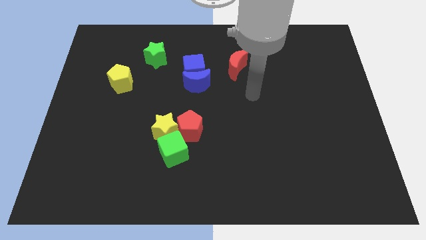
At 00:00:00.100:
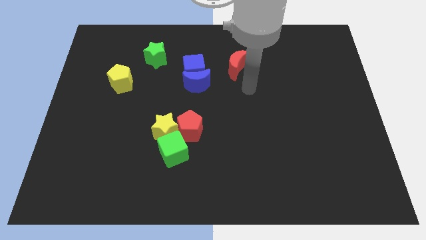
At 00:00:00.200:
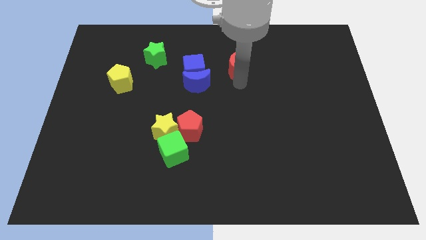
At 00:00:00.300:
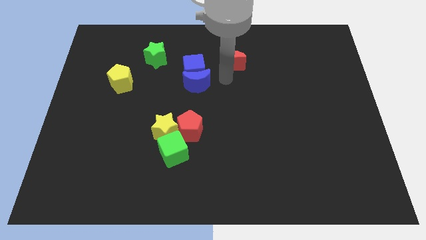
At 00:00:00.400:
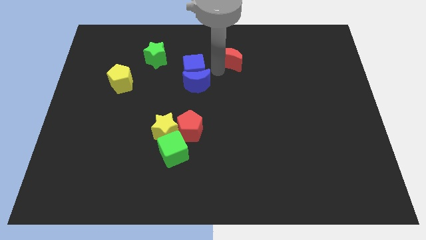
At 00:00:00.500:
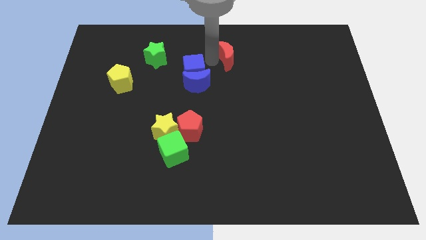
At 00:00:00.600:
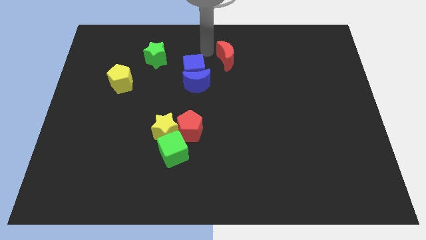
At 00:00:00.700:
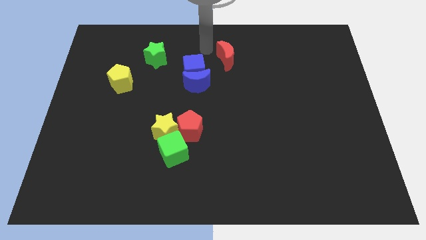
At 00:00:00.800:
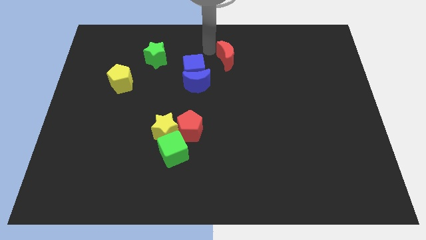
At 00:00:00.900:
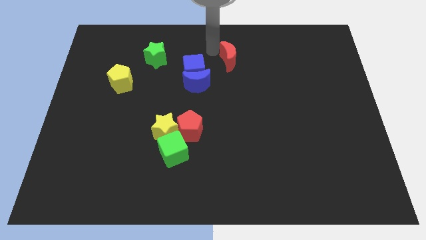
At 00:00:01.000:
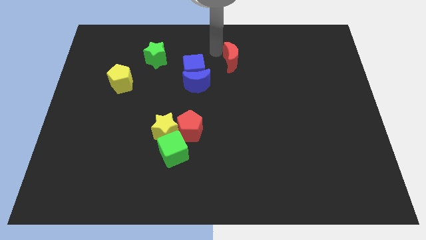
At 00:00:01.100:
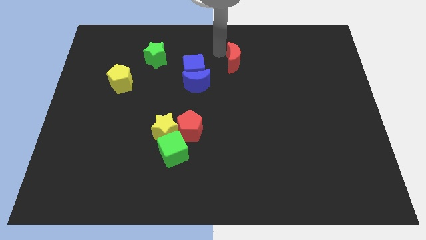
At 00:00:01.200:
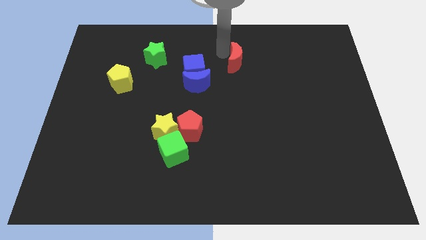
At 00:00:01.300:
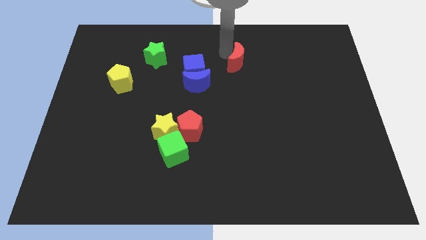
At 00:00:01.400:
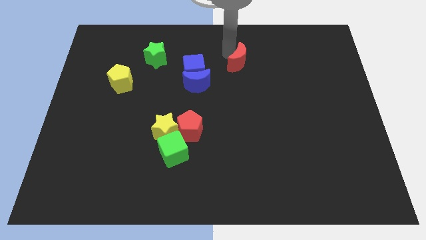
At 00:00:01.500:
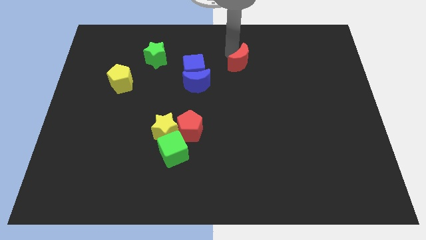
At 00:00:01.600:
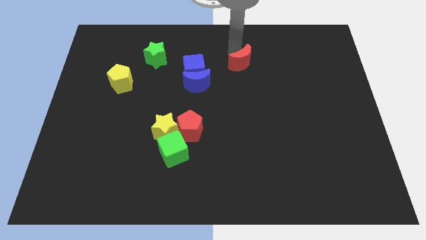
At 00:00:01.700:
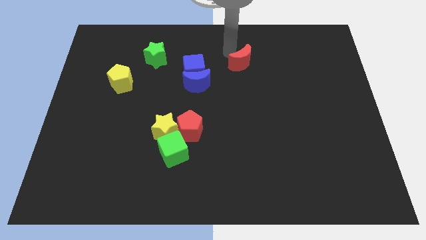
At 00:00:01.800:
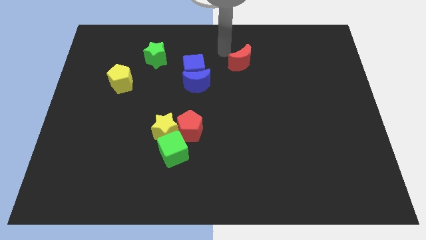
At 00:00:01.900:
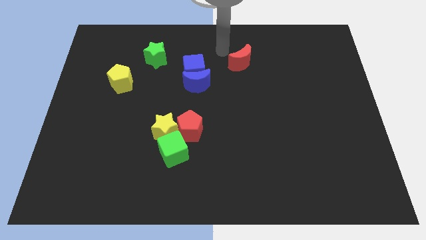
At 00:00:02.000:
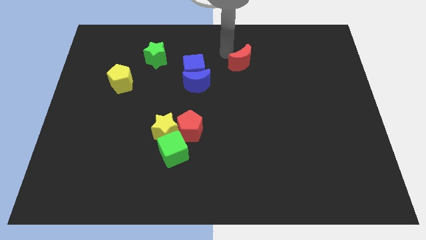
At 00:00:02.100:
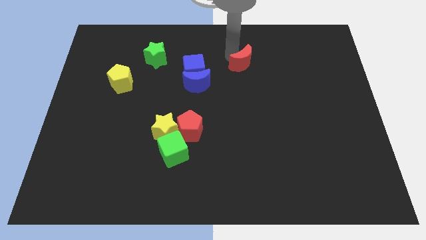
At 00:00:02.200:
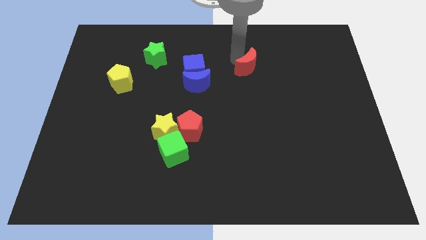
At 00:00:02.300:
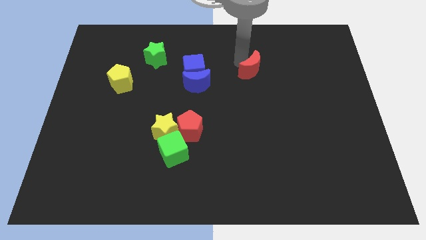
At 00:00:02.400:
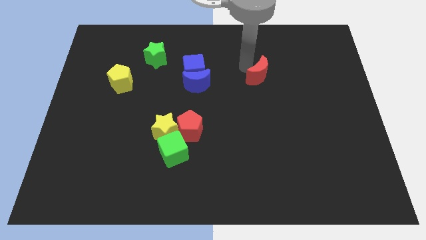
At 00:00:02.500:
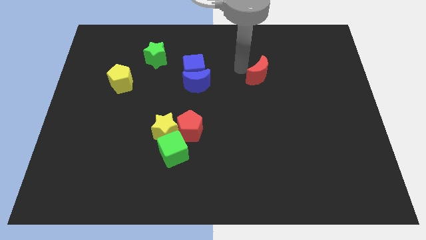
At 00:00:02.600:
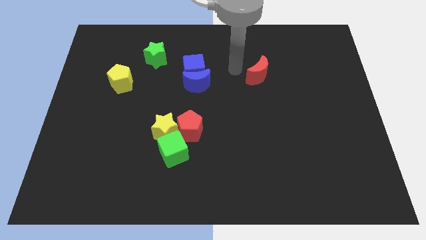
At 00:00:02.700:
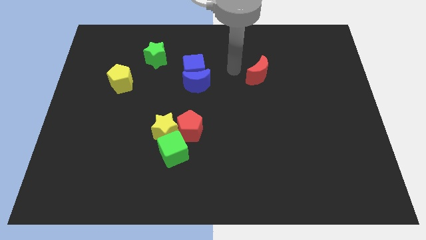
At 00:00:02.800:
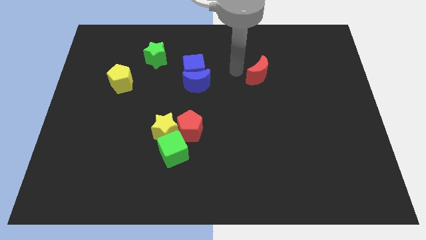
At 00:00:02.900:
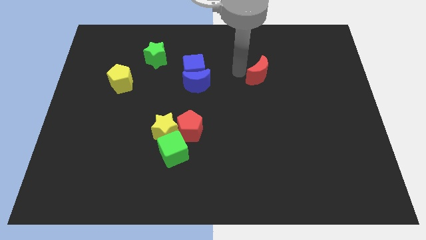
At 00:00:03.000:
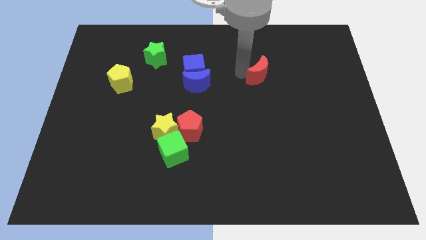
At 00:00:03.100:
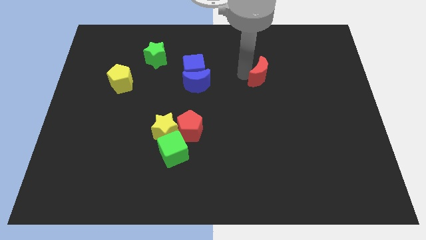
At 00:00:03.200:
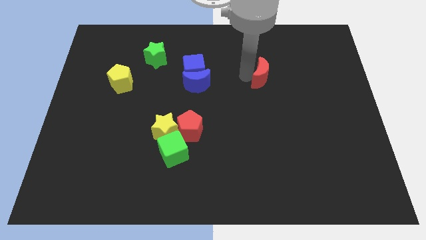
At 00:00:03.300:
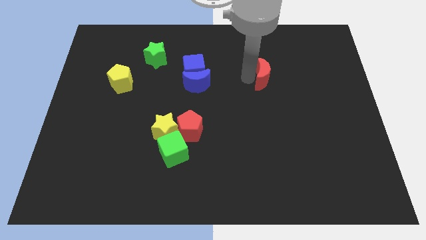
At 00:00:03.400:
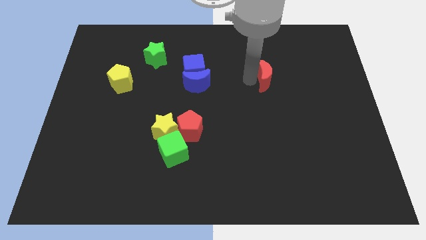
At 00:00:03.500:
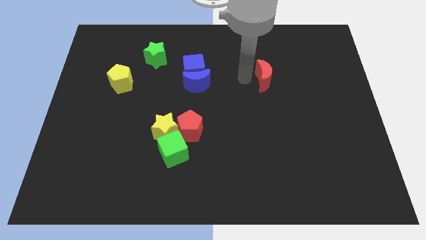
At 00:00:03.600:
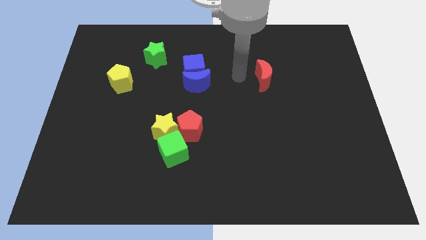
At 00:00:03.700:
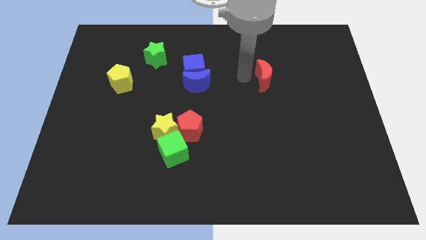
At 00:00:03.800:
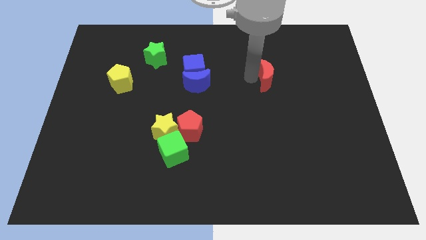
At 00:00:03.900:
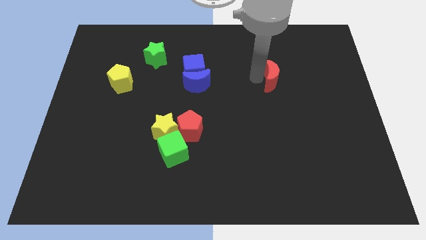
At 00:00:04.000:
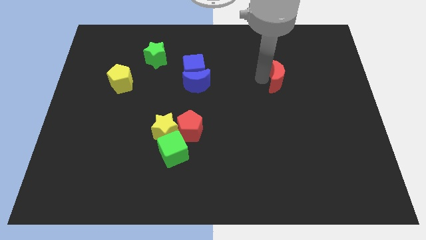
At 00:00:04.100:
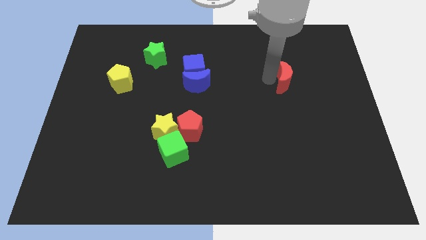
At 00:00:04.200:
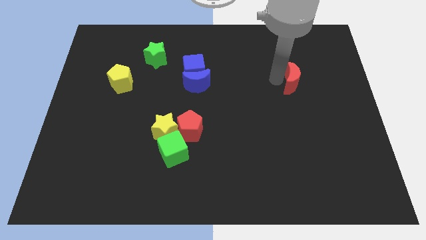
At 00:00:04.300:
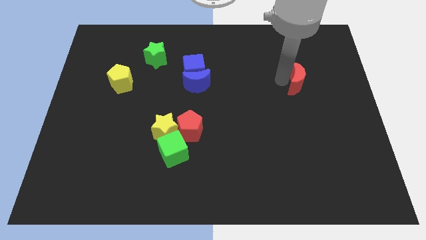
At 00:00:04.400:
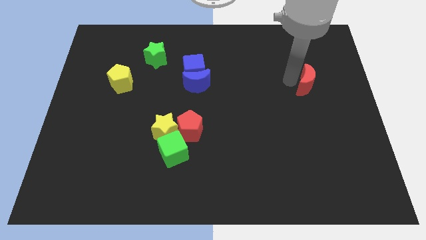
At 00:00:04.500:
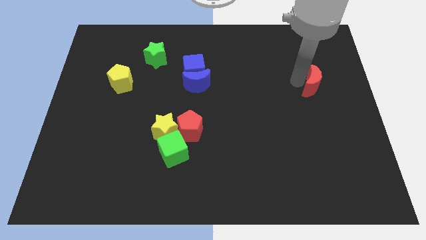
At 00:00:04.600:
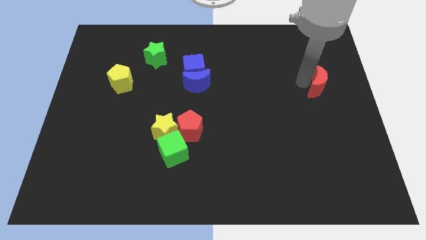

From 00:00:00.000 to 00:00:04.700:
slide the red moon to the right side

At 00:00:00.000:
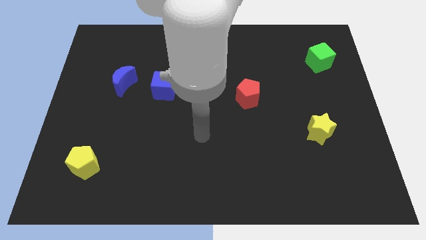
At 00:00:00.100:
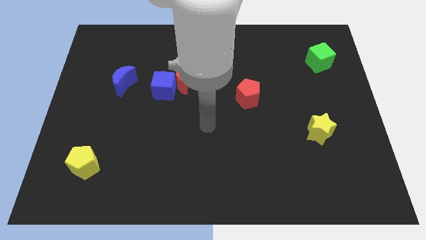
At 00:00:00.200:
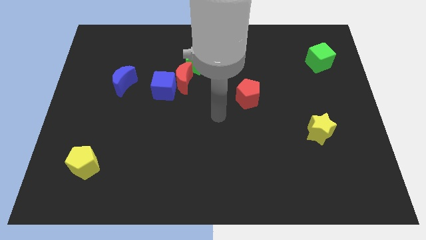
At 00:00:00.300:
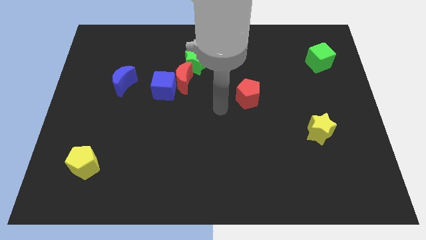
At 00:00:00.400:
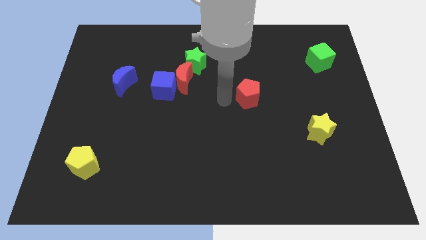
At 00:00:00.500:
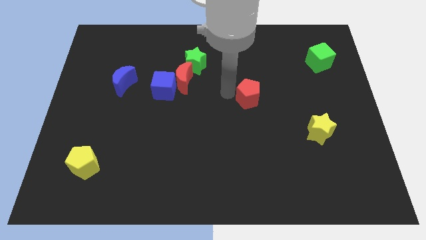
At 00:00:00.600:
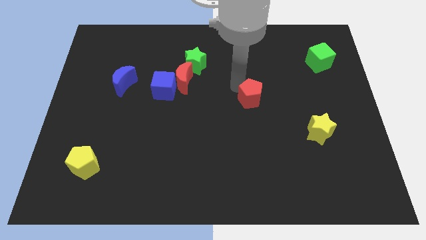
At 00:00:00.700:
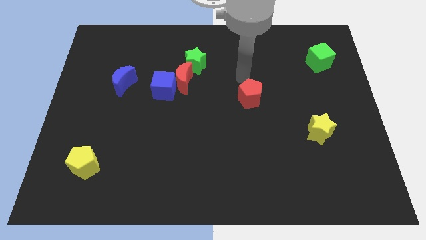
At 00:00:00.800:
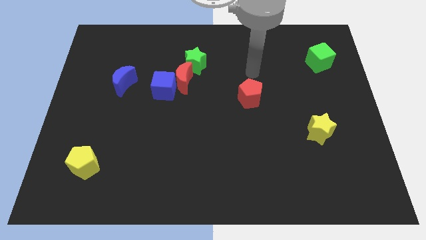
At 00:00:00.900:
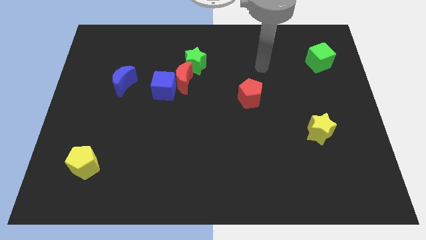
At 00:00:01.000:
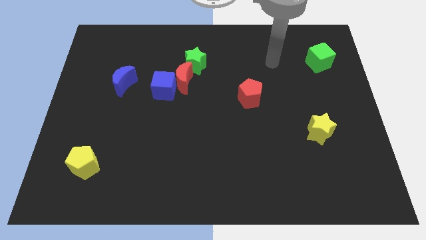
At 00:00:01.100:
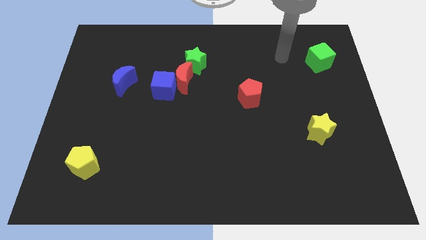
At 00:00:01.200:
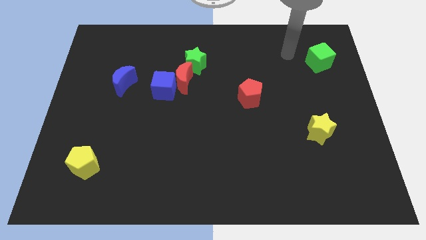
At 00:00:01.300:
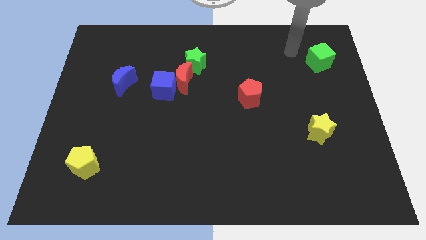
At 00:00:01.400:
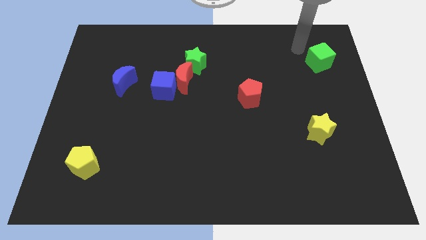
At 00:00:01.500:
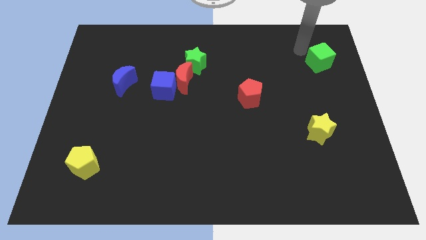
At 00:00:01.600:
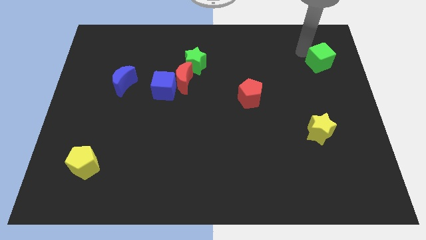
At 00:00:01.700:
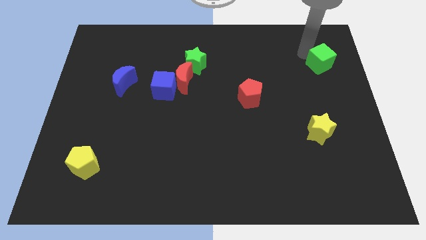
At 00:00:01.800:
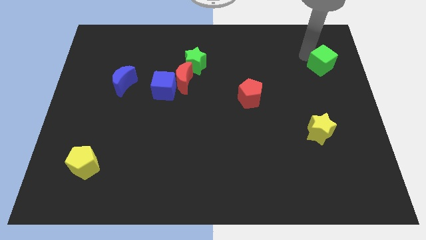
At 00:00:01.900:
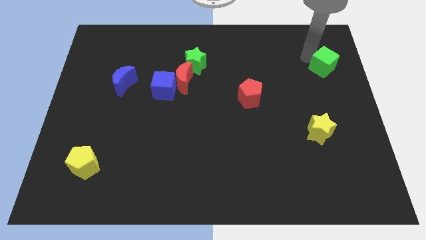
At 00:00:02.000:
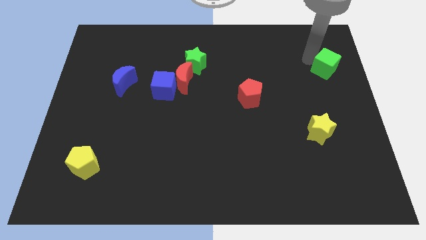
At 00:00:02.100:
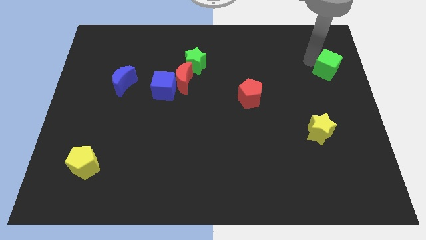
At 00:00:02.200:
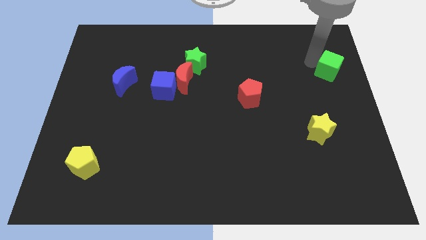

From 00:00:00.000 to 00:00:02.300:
put the green cube to the right side of the board

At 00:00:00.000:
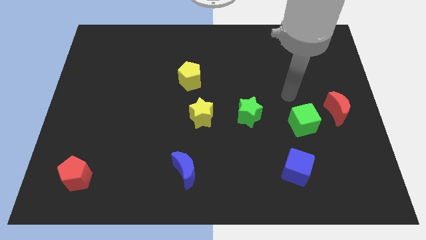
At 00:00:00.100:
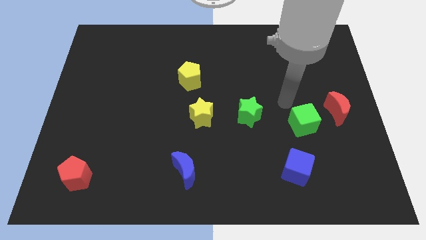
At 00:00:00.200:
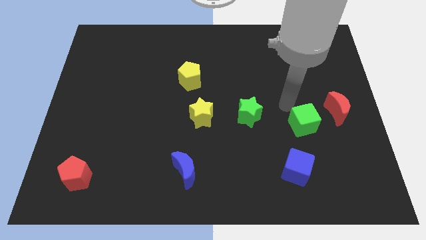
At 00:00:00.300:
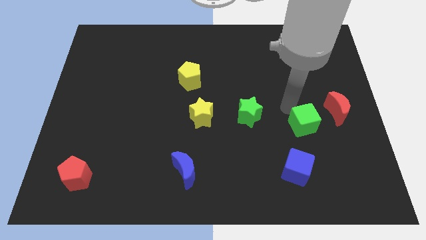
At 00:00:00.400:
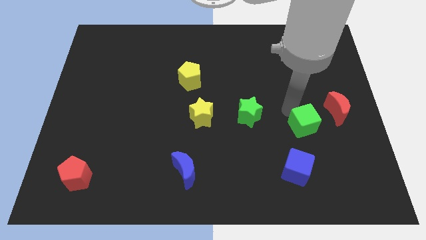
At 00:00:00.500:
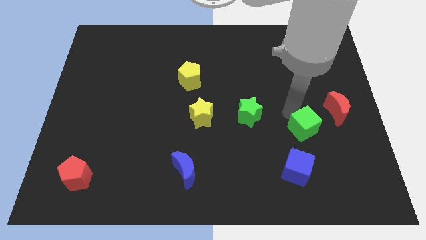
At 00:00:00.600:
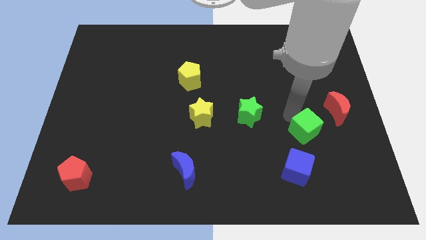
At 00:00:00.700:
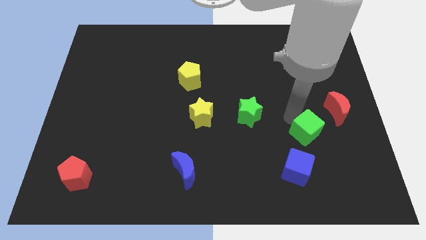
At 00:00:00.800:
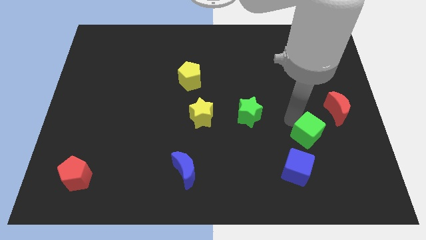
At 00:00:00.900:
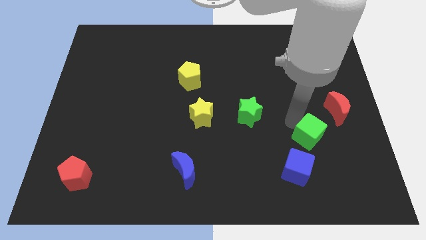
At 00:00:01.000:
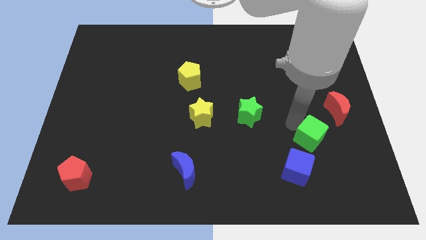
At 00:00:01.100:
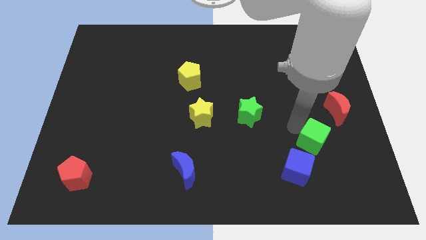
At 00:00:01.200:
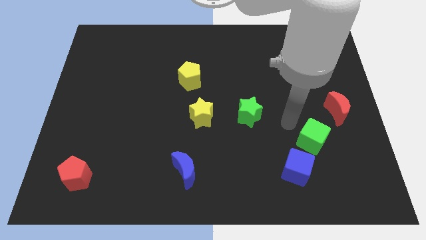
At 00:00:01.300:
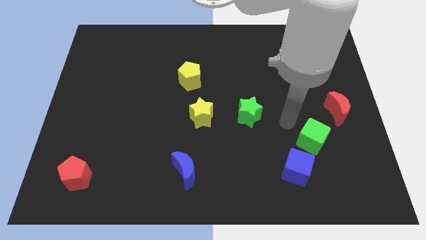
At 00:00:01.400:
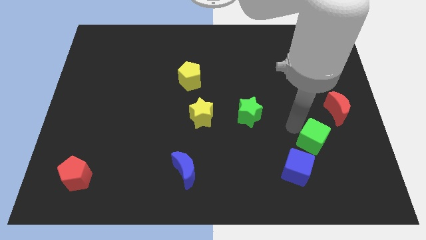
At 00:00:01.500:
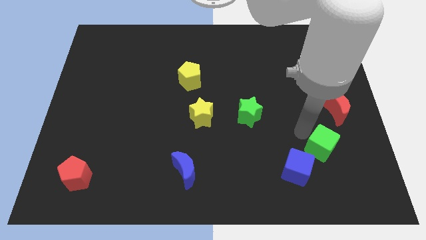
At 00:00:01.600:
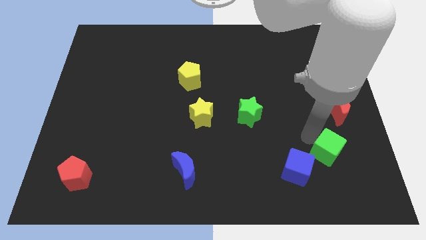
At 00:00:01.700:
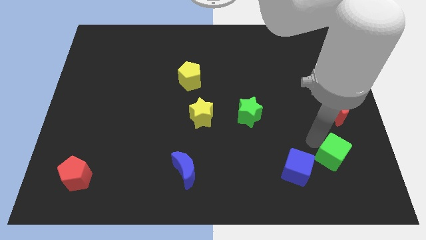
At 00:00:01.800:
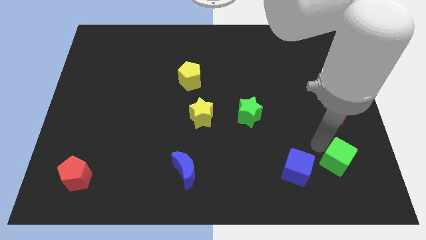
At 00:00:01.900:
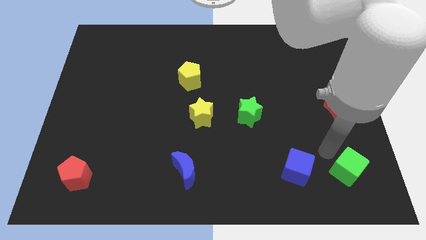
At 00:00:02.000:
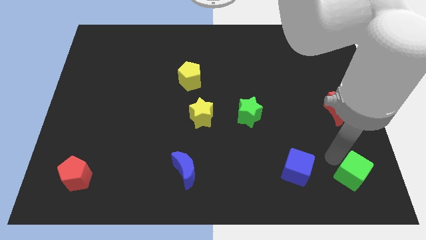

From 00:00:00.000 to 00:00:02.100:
slide the green cube to the lower right corner
